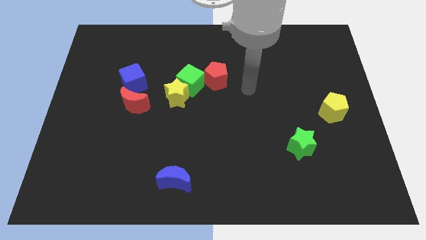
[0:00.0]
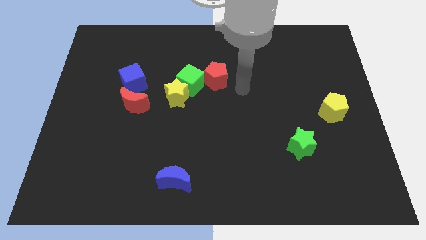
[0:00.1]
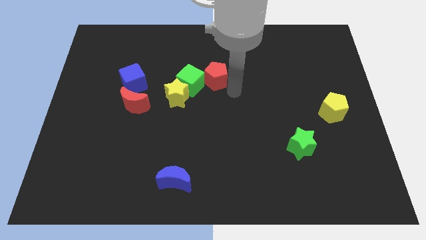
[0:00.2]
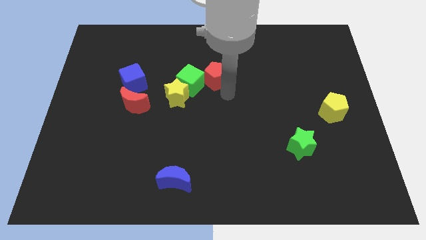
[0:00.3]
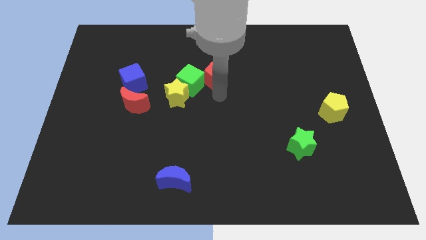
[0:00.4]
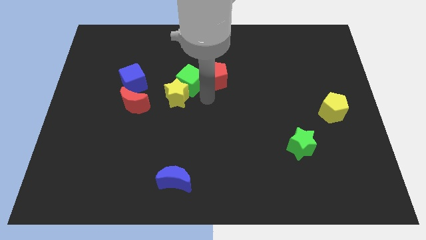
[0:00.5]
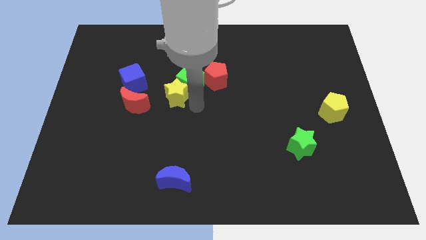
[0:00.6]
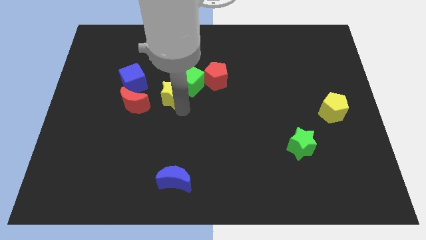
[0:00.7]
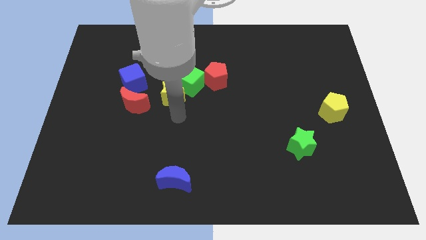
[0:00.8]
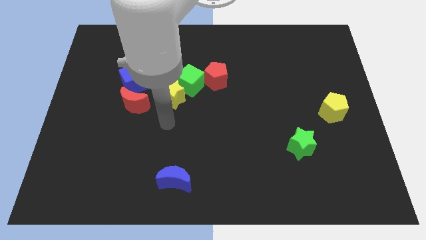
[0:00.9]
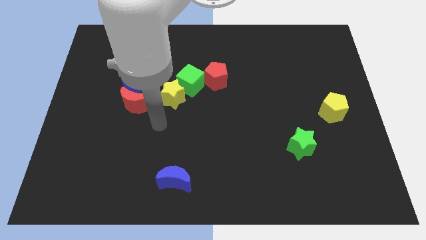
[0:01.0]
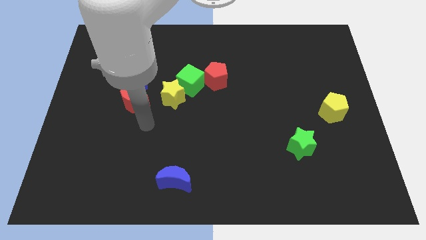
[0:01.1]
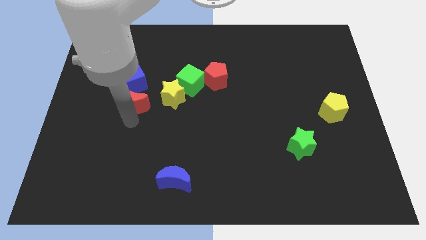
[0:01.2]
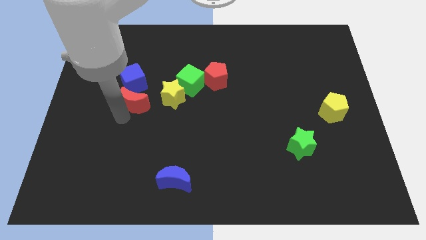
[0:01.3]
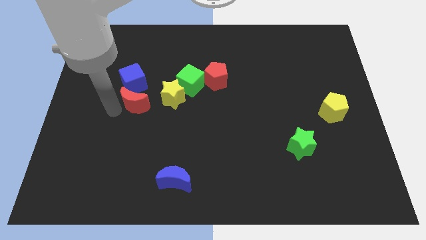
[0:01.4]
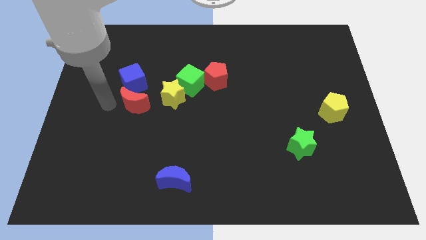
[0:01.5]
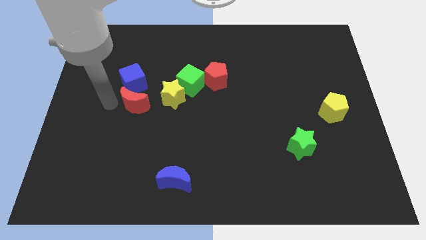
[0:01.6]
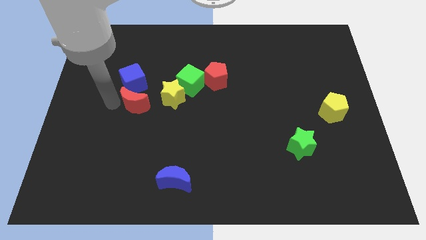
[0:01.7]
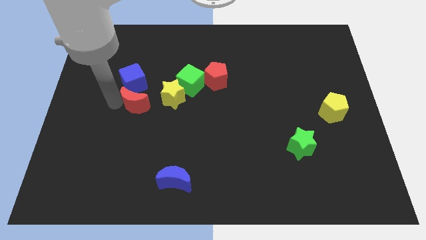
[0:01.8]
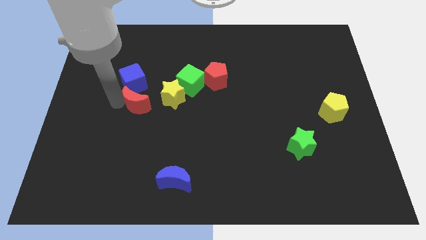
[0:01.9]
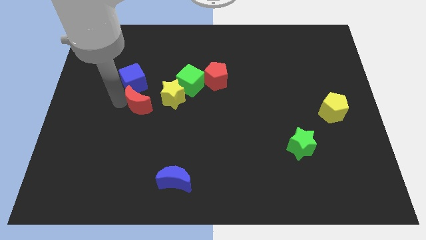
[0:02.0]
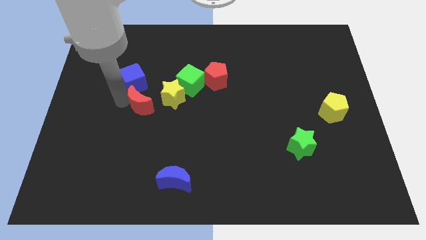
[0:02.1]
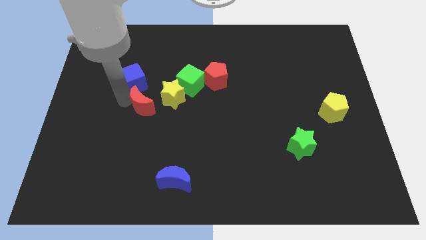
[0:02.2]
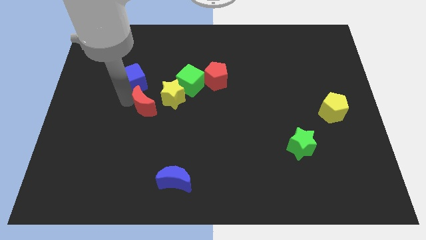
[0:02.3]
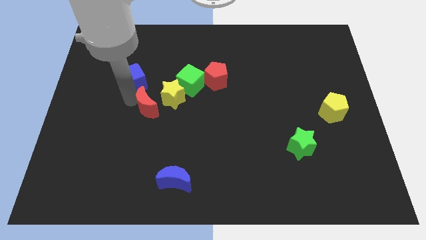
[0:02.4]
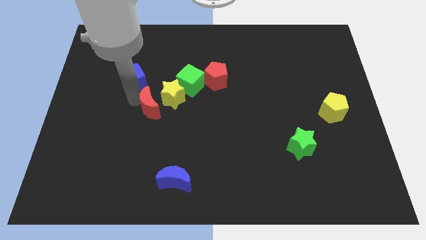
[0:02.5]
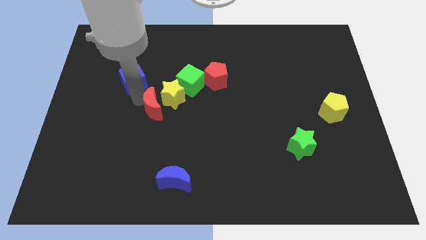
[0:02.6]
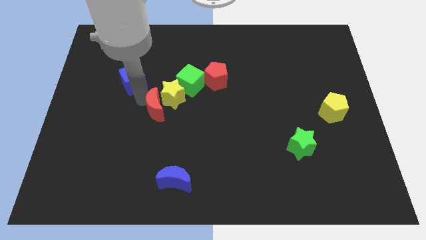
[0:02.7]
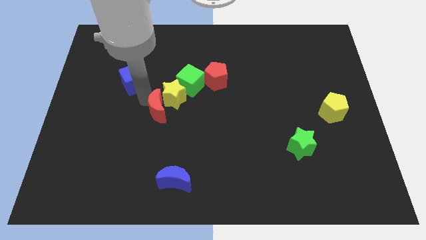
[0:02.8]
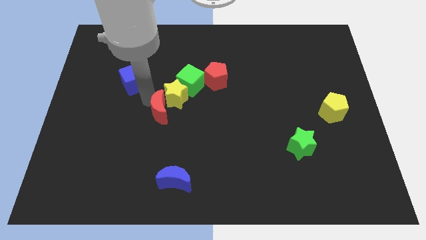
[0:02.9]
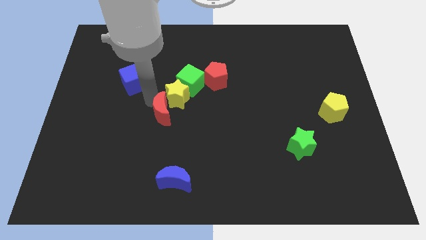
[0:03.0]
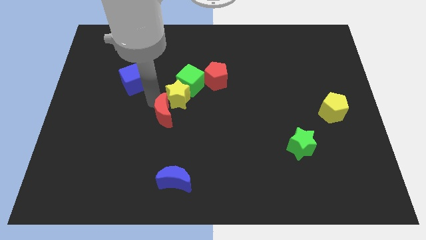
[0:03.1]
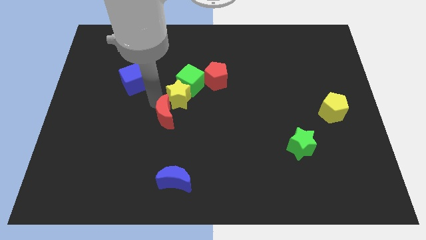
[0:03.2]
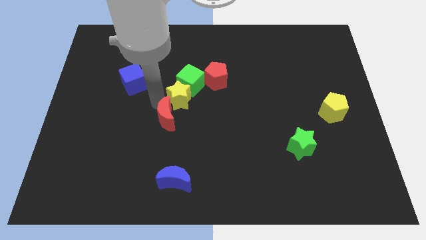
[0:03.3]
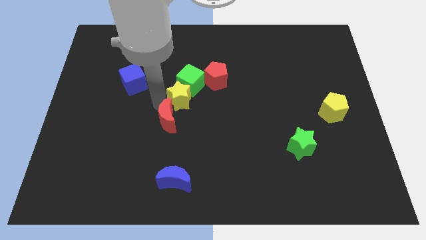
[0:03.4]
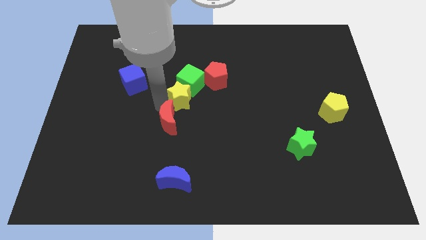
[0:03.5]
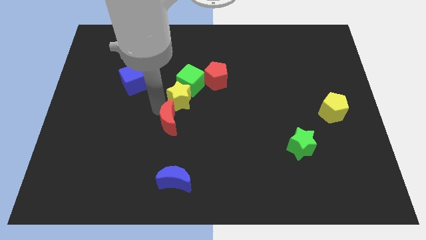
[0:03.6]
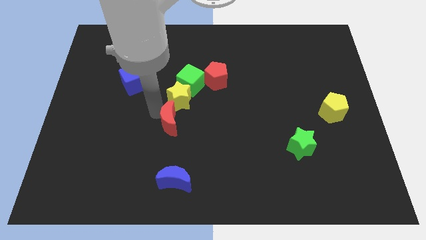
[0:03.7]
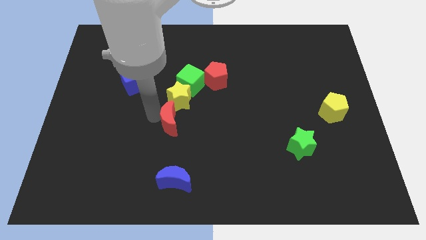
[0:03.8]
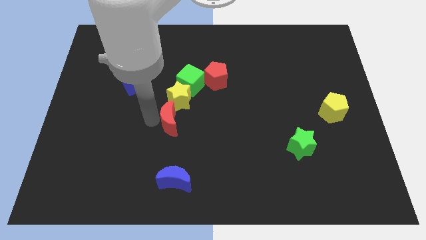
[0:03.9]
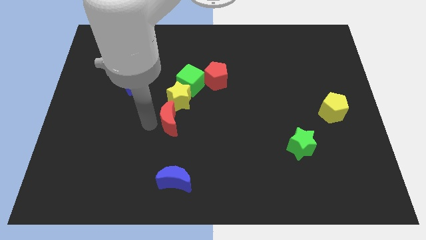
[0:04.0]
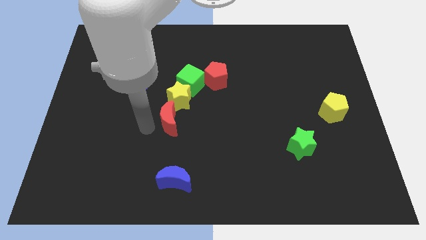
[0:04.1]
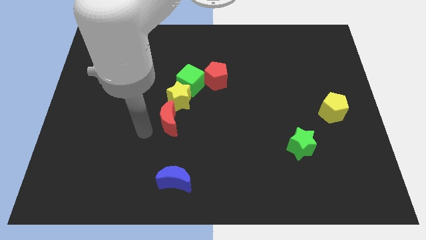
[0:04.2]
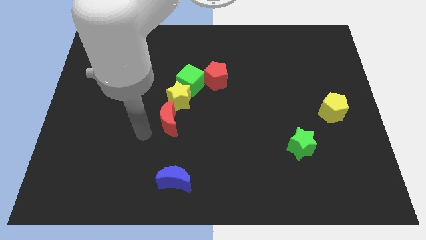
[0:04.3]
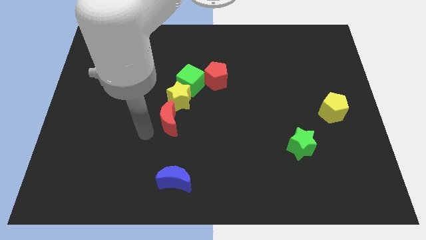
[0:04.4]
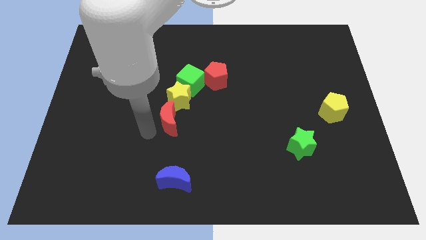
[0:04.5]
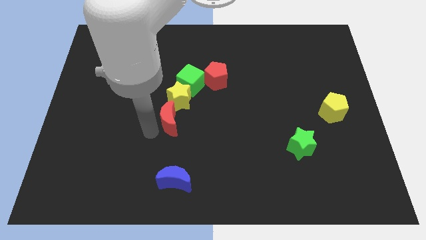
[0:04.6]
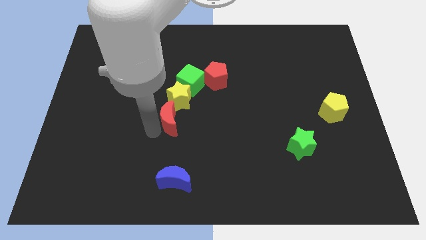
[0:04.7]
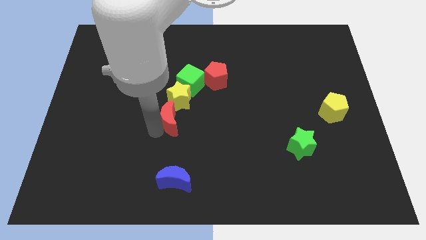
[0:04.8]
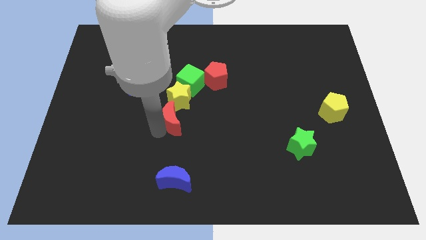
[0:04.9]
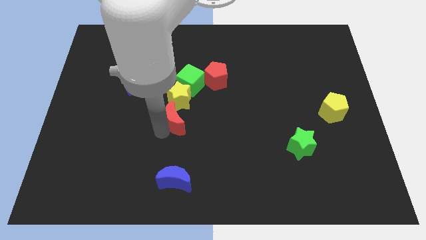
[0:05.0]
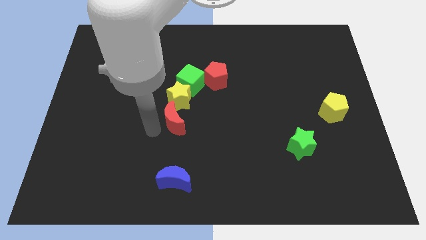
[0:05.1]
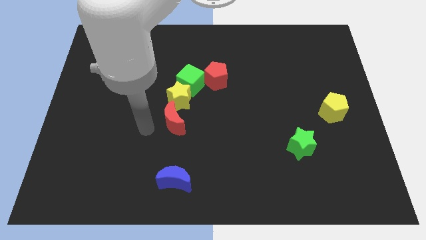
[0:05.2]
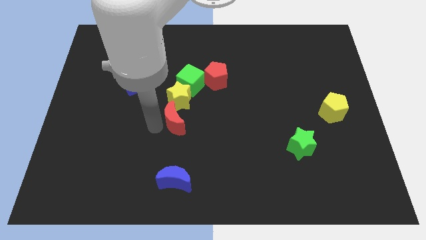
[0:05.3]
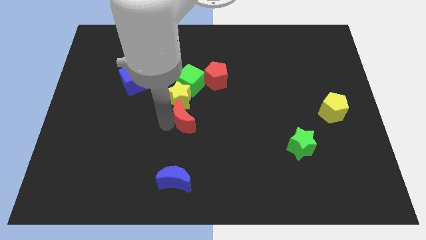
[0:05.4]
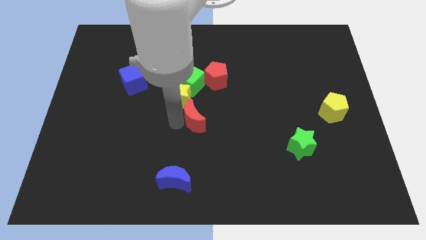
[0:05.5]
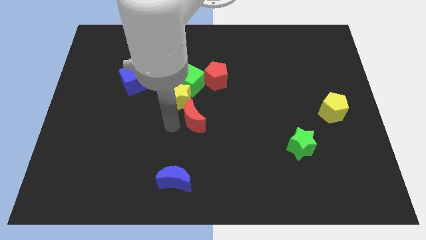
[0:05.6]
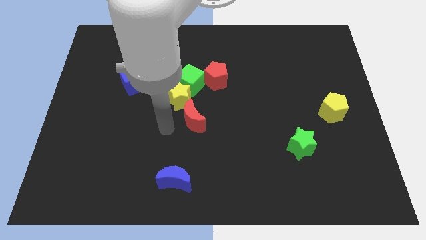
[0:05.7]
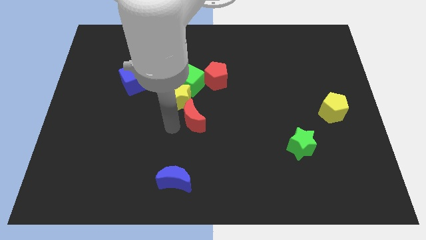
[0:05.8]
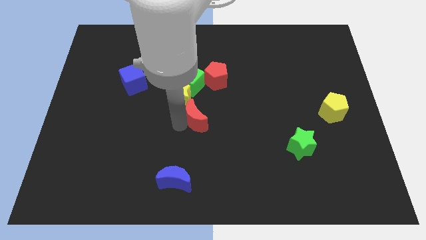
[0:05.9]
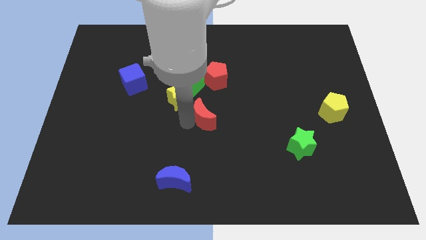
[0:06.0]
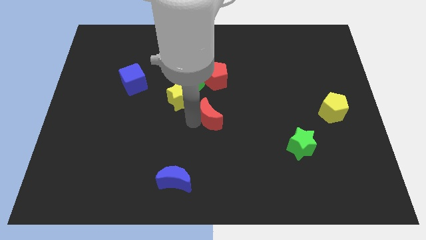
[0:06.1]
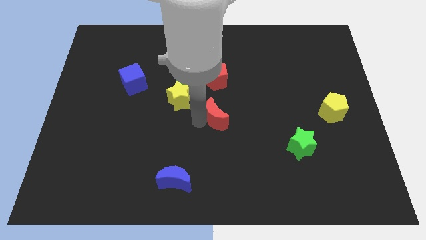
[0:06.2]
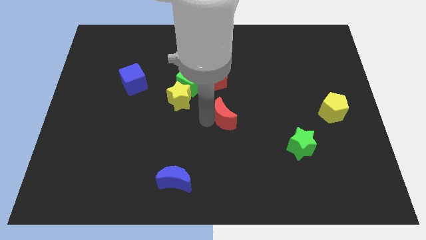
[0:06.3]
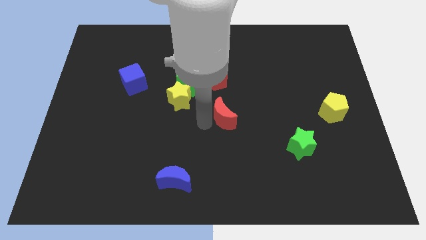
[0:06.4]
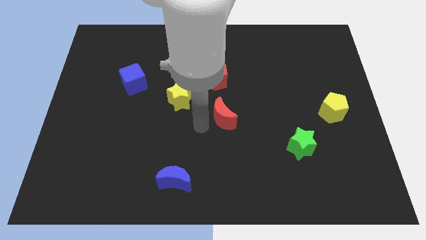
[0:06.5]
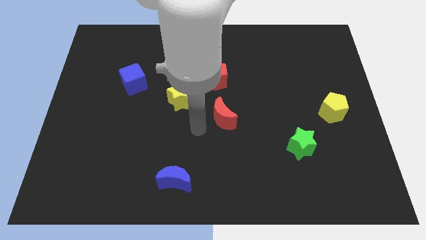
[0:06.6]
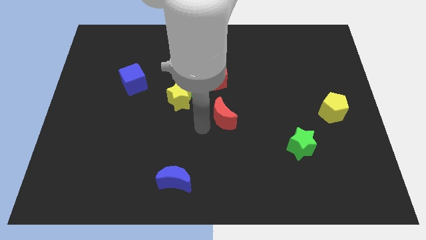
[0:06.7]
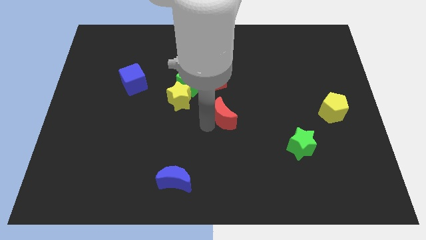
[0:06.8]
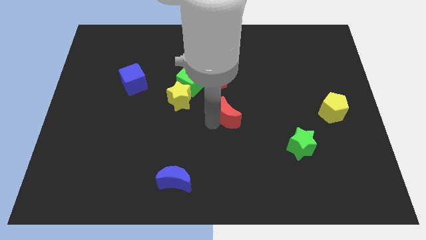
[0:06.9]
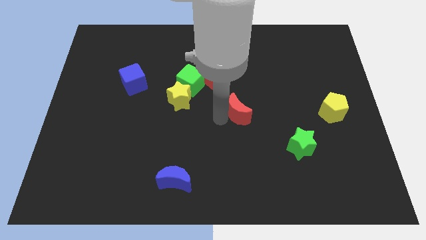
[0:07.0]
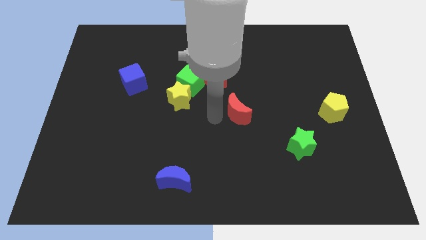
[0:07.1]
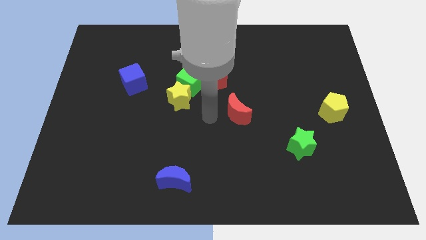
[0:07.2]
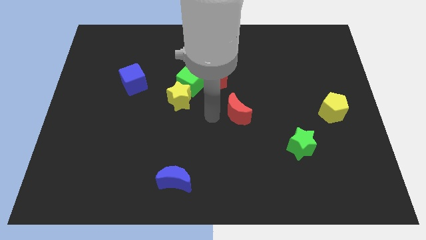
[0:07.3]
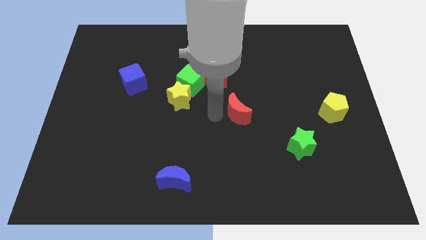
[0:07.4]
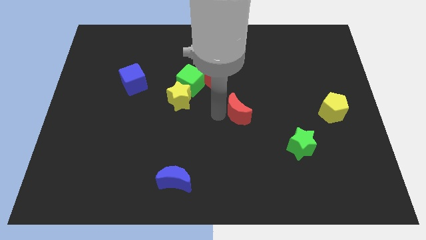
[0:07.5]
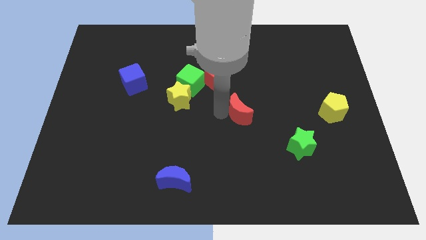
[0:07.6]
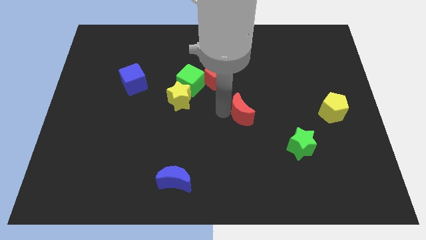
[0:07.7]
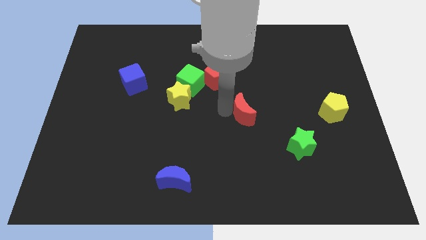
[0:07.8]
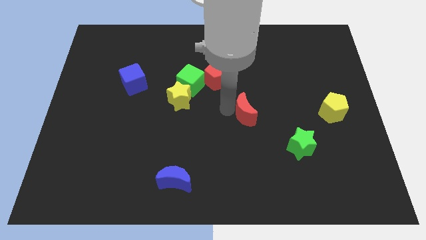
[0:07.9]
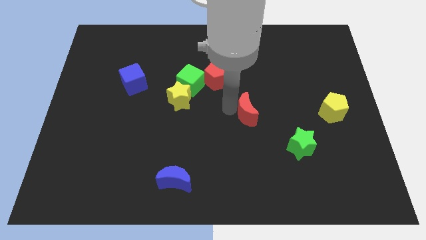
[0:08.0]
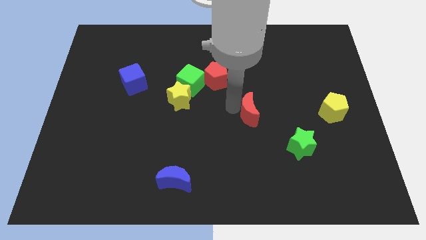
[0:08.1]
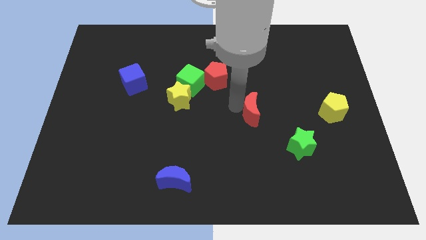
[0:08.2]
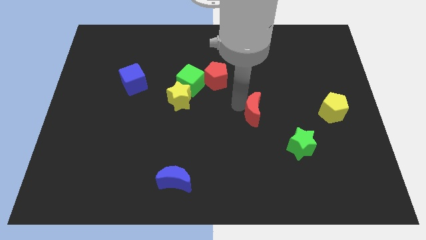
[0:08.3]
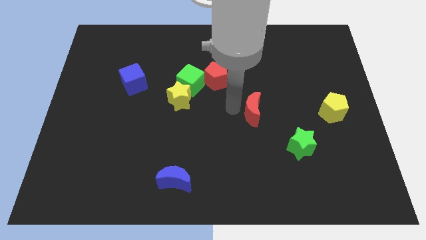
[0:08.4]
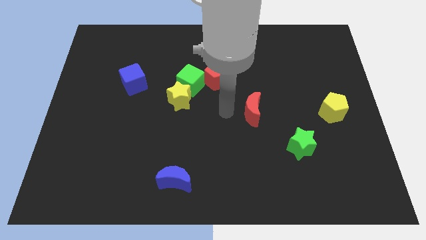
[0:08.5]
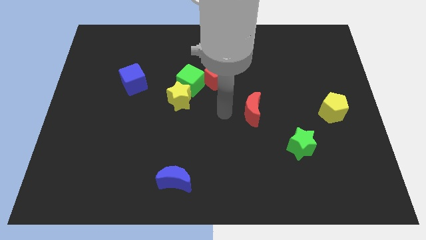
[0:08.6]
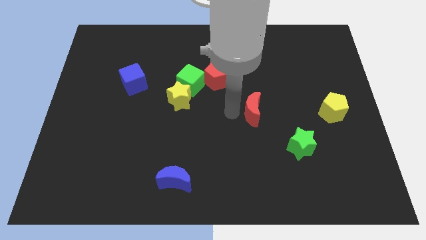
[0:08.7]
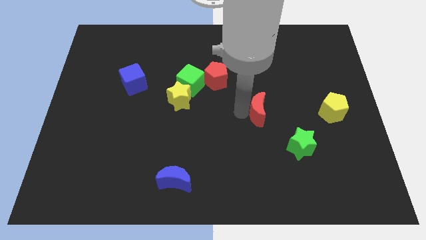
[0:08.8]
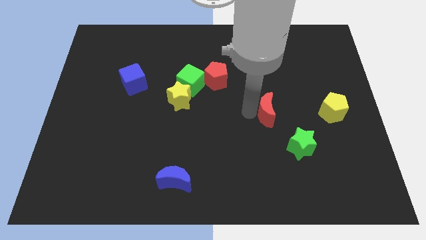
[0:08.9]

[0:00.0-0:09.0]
slide the red moon to the left of the yellow pentagon
